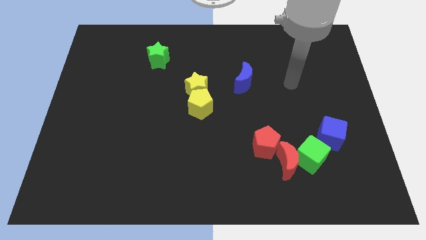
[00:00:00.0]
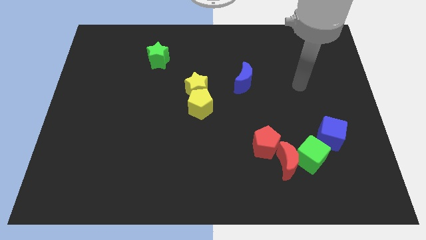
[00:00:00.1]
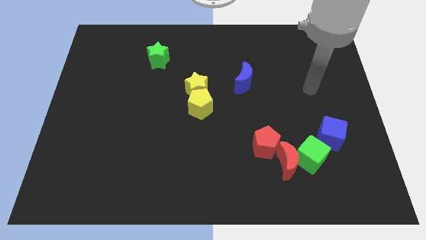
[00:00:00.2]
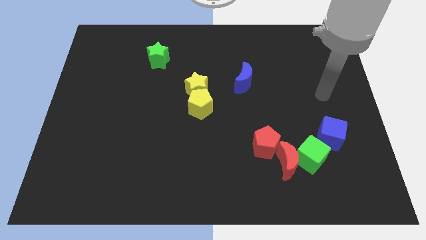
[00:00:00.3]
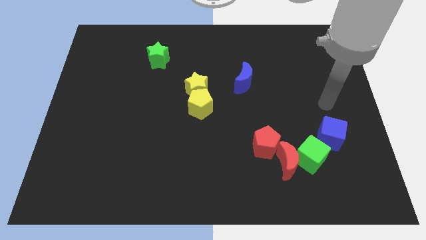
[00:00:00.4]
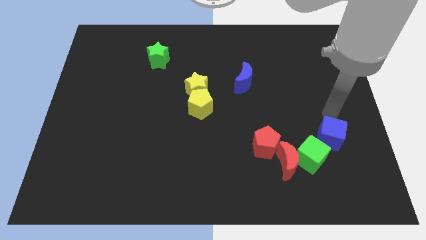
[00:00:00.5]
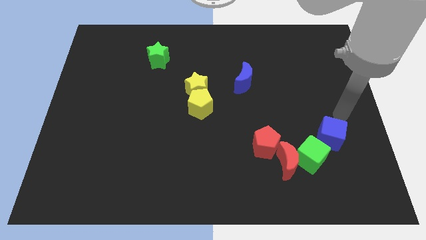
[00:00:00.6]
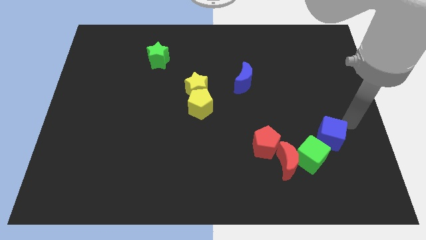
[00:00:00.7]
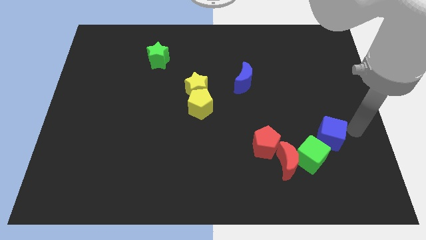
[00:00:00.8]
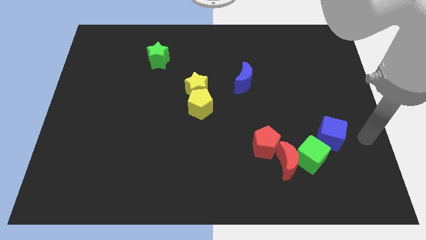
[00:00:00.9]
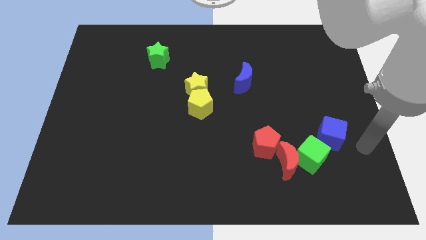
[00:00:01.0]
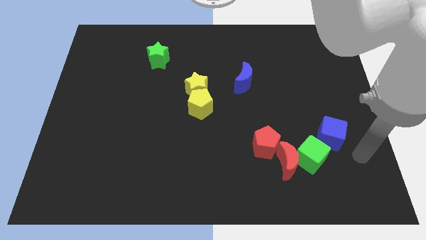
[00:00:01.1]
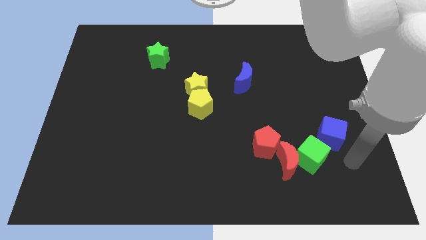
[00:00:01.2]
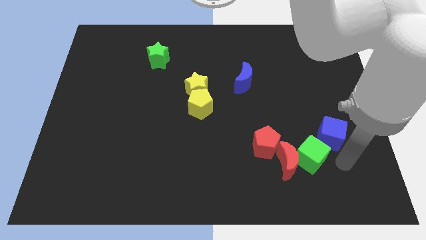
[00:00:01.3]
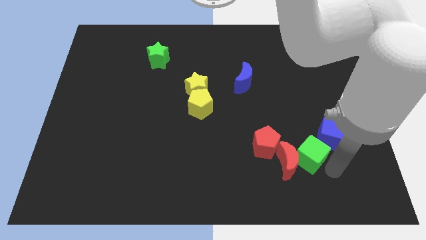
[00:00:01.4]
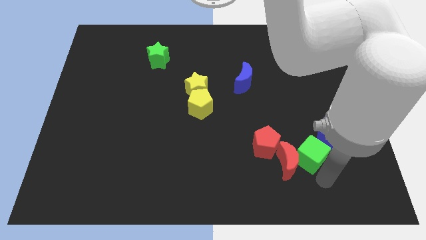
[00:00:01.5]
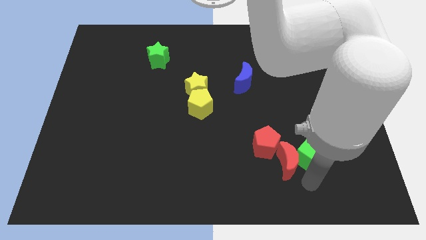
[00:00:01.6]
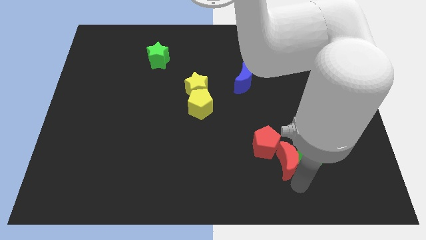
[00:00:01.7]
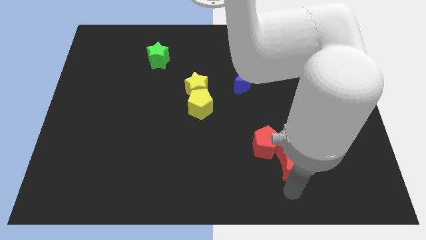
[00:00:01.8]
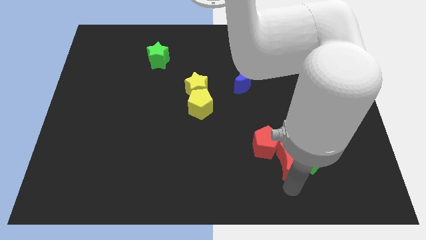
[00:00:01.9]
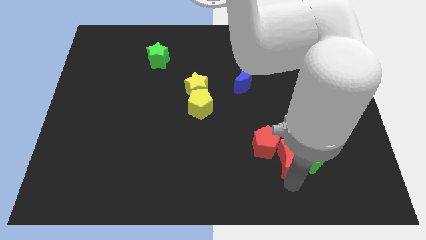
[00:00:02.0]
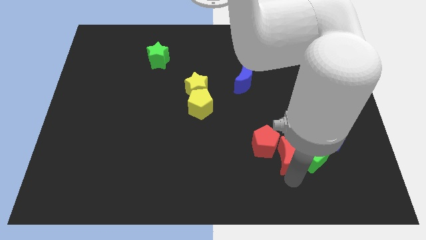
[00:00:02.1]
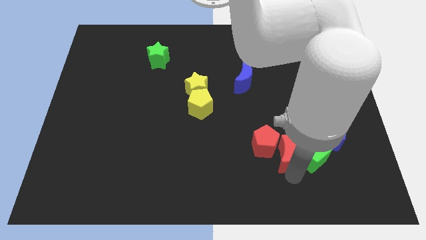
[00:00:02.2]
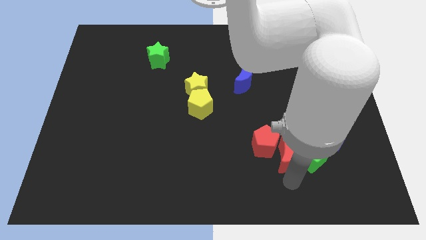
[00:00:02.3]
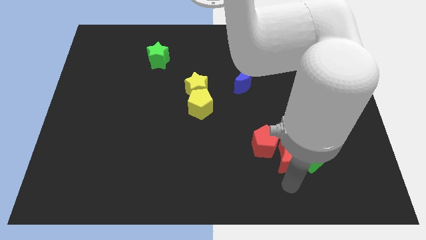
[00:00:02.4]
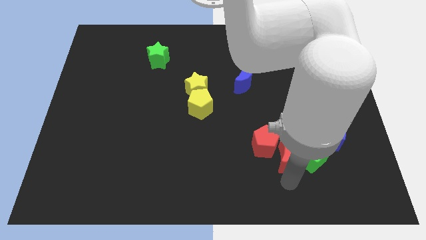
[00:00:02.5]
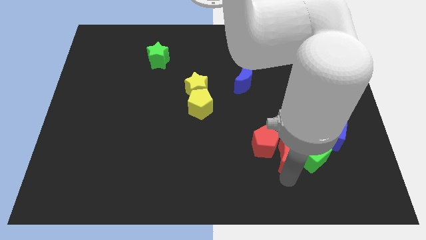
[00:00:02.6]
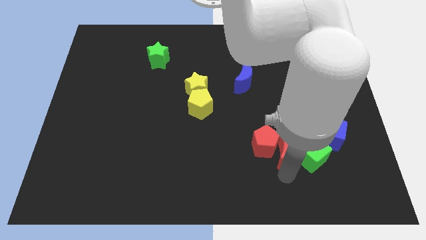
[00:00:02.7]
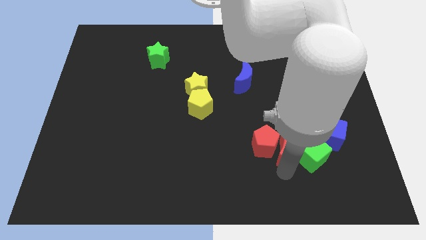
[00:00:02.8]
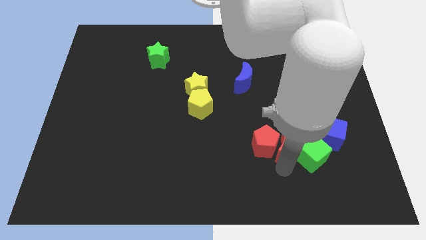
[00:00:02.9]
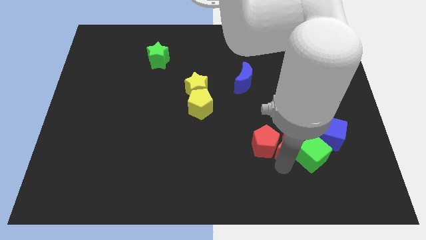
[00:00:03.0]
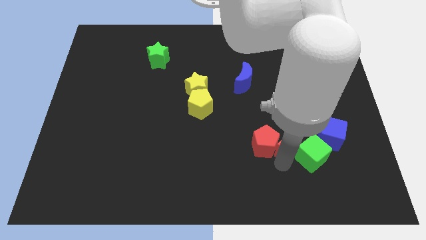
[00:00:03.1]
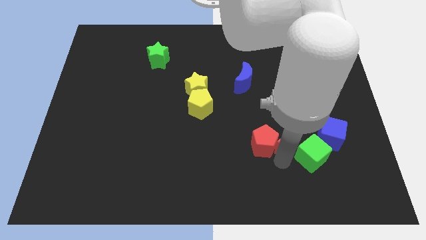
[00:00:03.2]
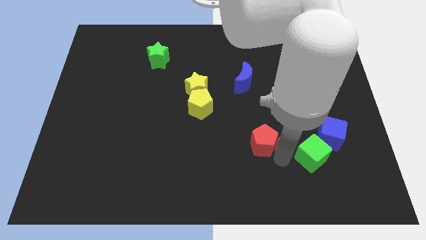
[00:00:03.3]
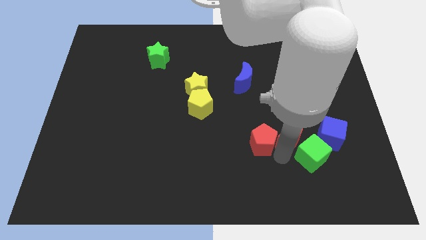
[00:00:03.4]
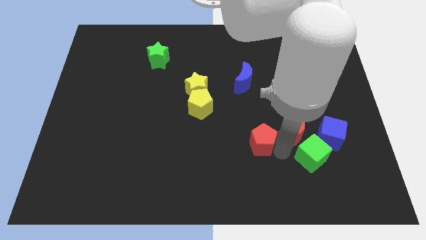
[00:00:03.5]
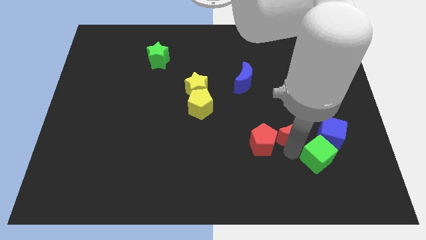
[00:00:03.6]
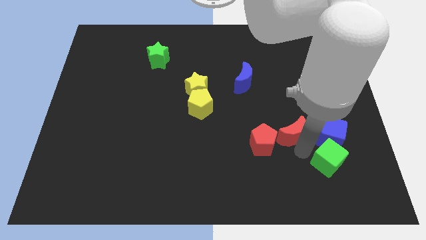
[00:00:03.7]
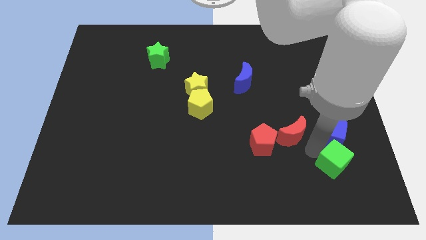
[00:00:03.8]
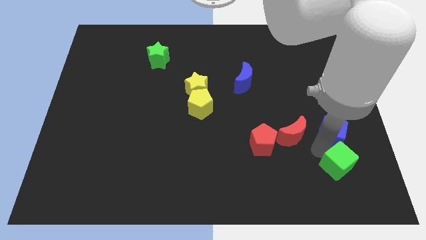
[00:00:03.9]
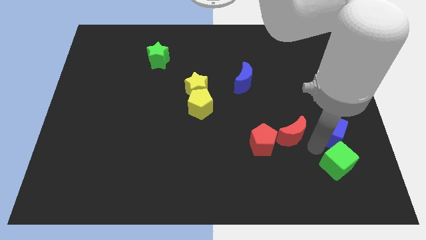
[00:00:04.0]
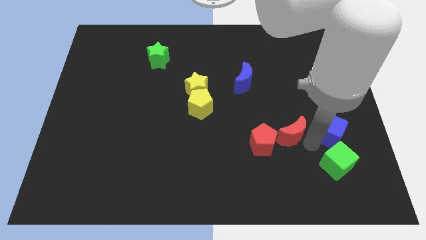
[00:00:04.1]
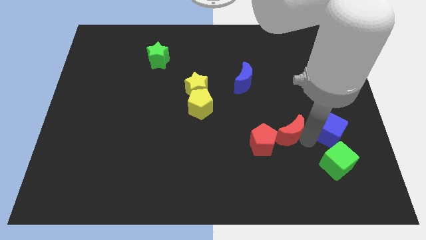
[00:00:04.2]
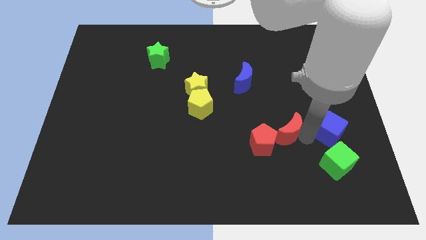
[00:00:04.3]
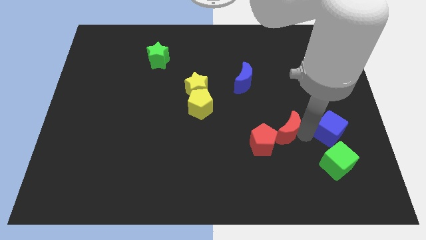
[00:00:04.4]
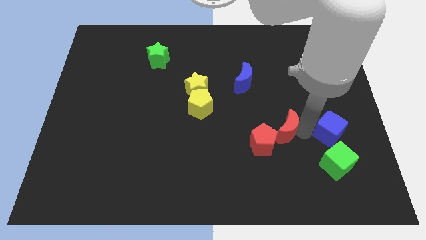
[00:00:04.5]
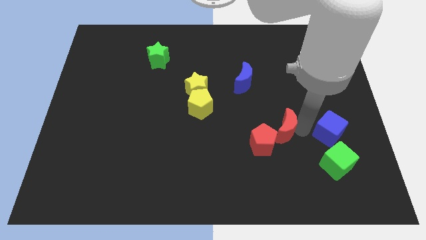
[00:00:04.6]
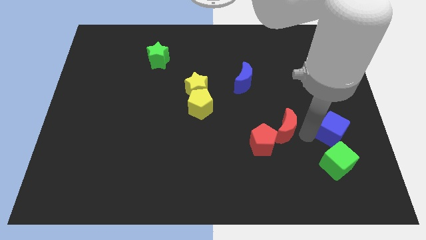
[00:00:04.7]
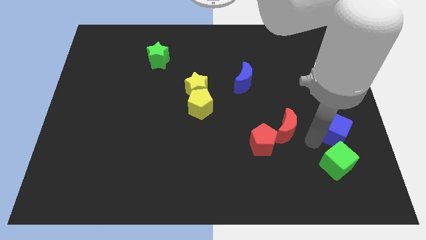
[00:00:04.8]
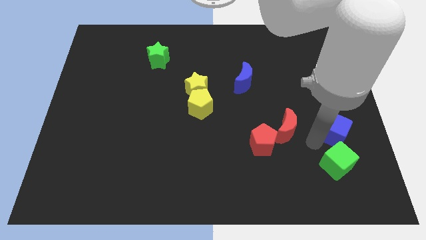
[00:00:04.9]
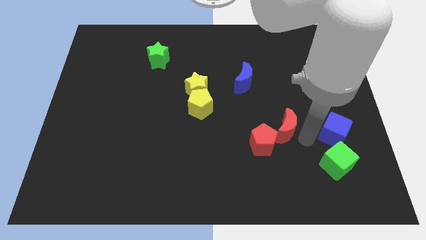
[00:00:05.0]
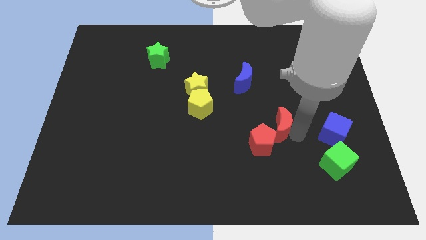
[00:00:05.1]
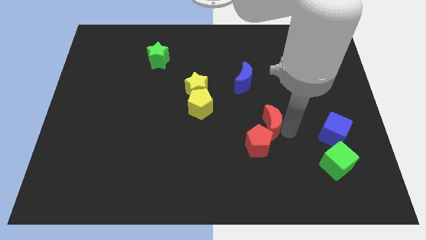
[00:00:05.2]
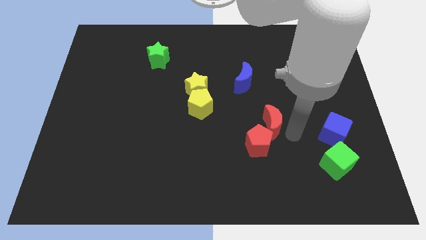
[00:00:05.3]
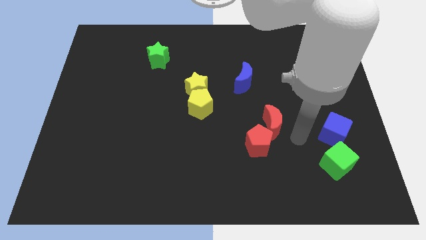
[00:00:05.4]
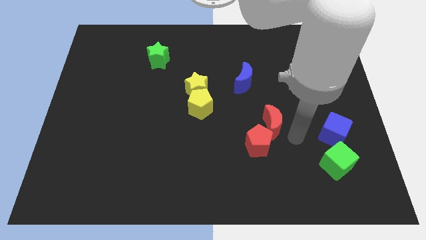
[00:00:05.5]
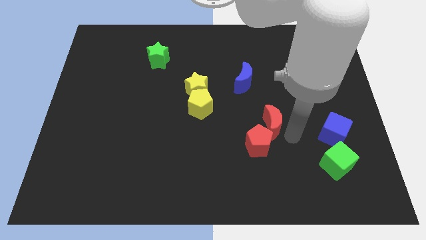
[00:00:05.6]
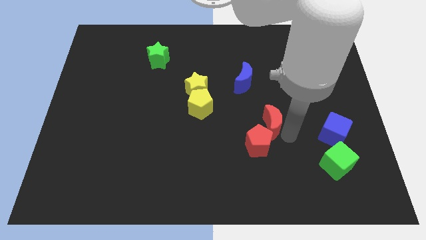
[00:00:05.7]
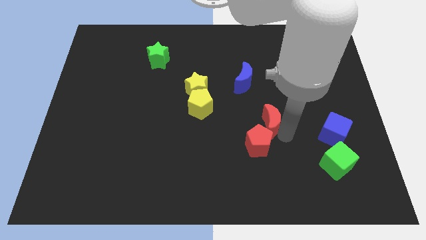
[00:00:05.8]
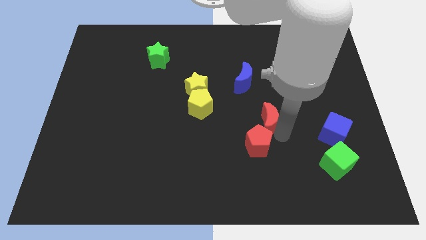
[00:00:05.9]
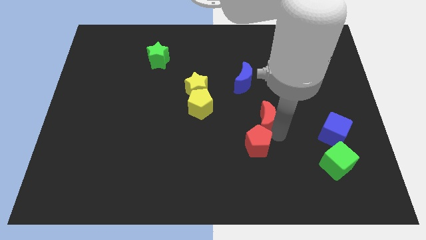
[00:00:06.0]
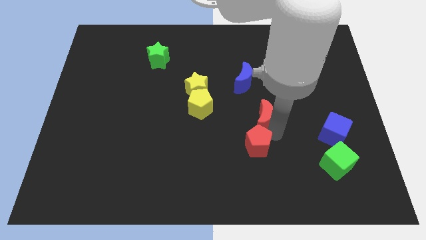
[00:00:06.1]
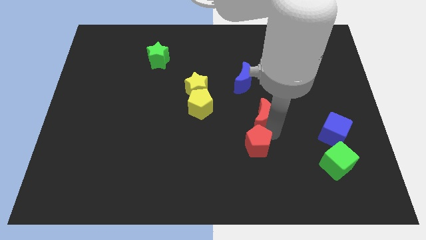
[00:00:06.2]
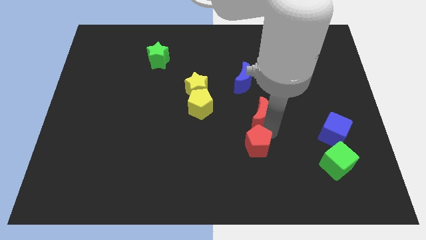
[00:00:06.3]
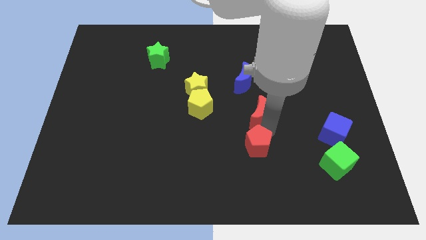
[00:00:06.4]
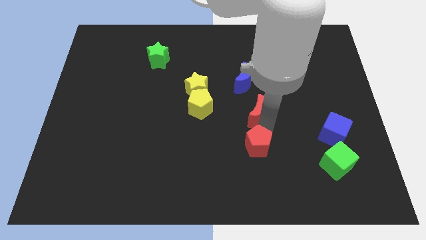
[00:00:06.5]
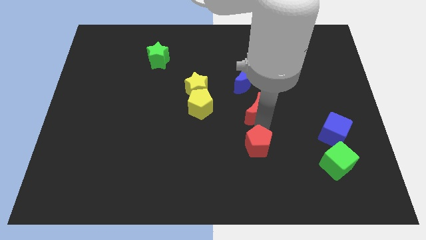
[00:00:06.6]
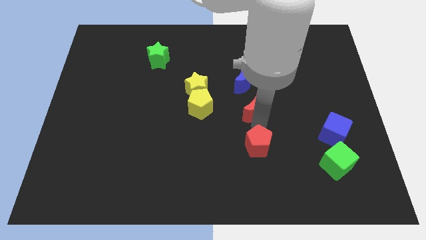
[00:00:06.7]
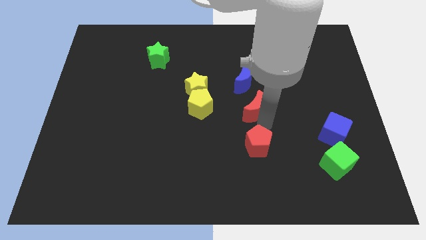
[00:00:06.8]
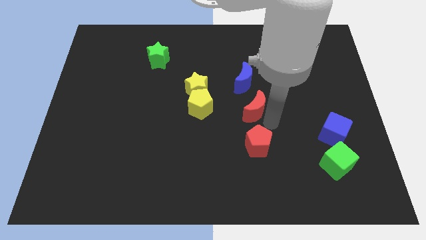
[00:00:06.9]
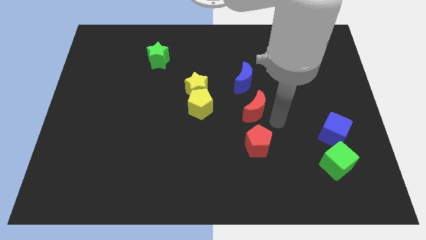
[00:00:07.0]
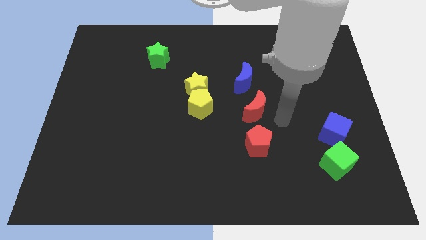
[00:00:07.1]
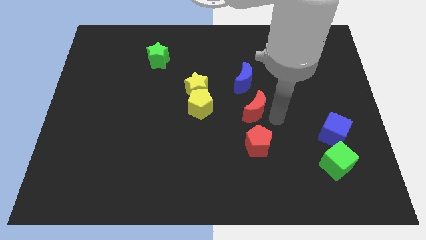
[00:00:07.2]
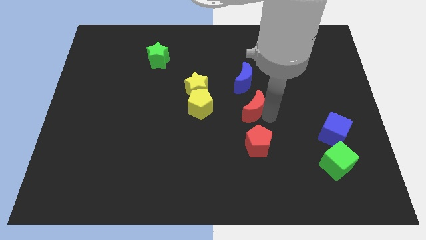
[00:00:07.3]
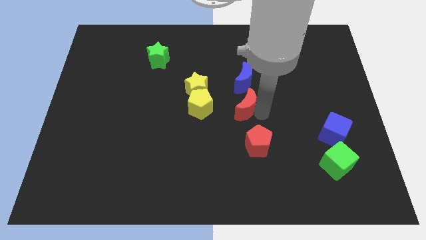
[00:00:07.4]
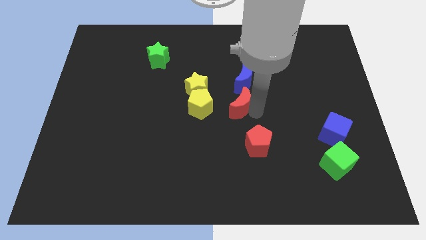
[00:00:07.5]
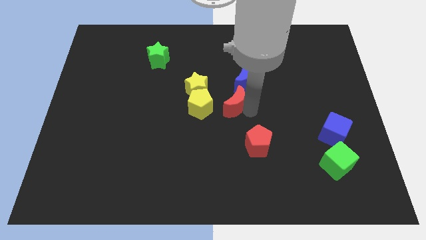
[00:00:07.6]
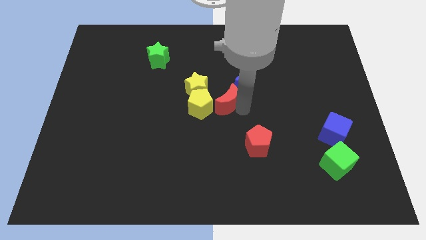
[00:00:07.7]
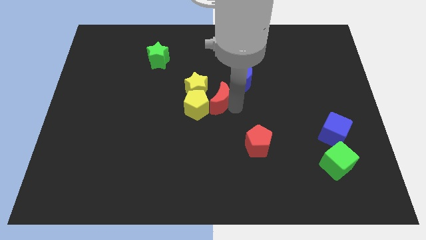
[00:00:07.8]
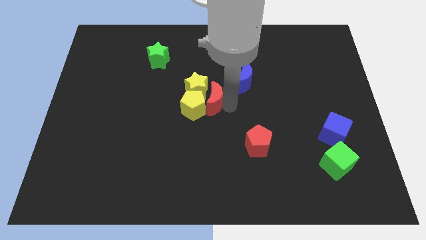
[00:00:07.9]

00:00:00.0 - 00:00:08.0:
put the red moon towards the yellow star
